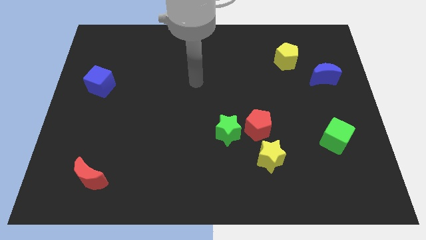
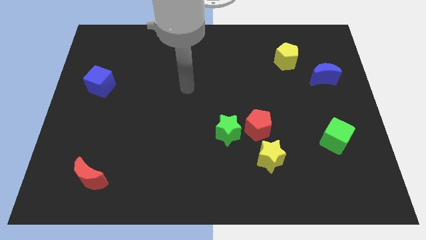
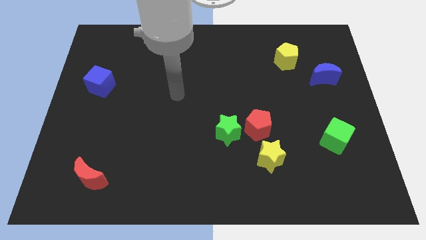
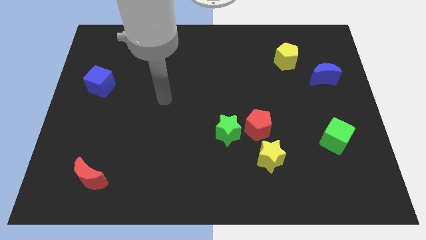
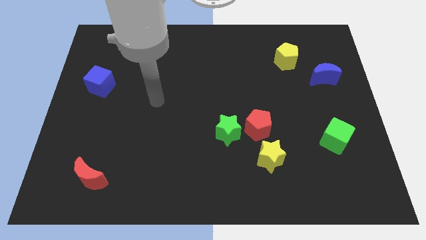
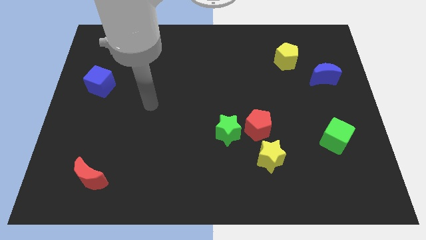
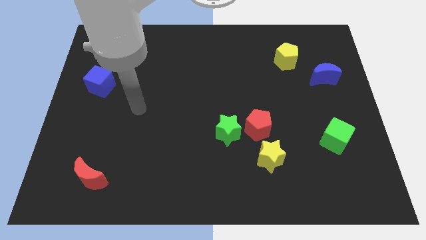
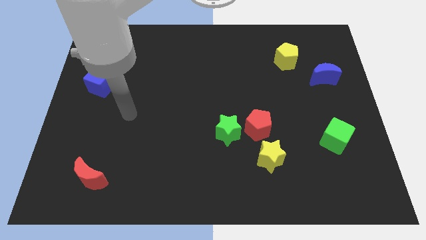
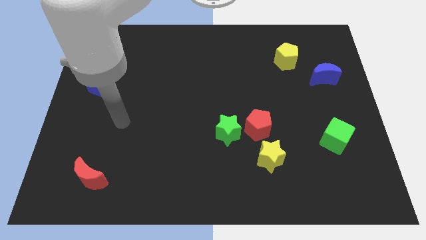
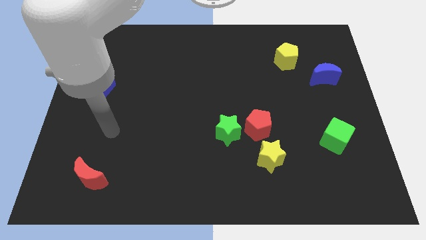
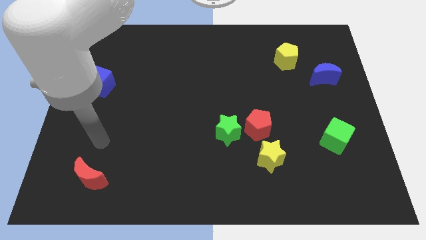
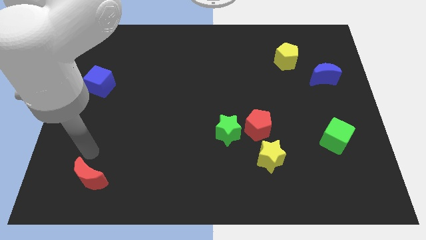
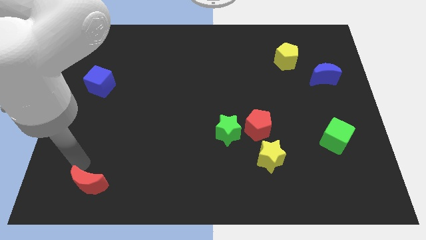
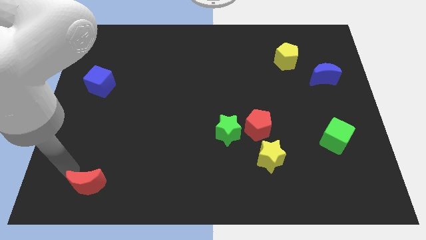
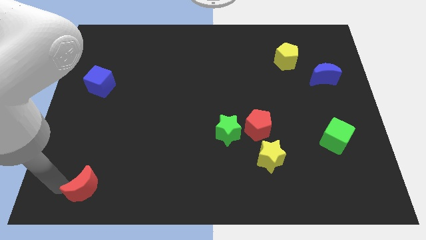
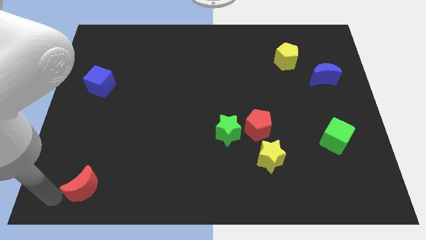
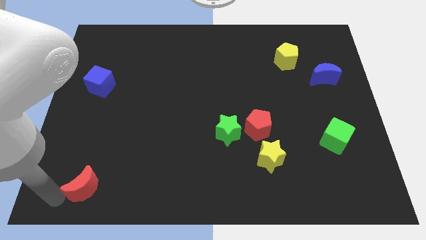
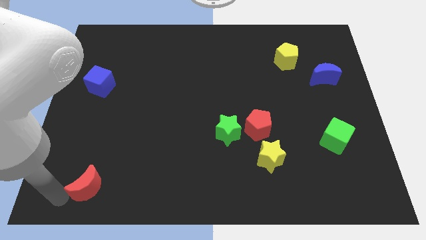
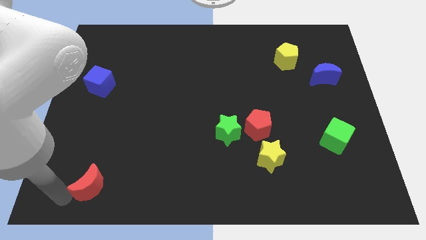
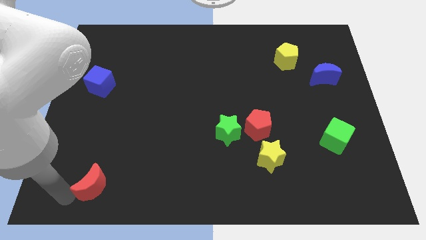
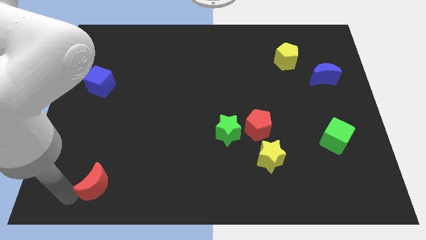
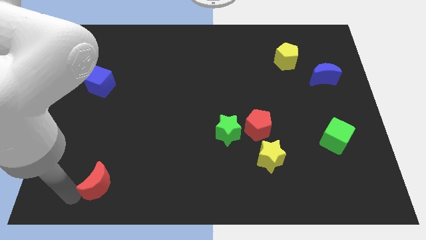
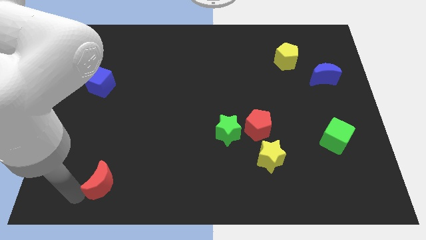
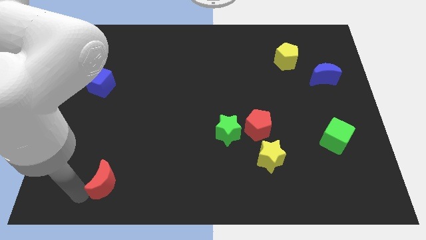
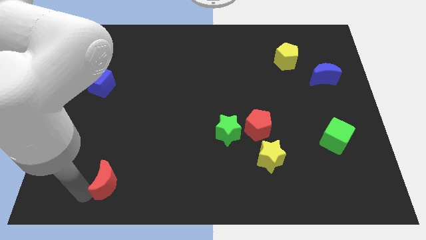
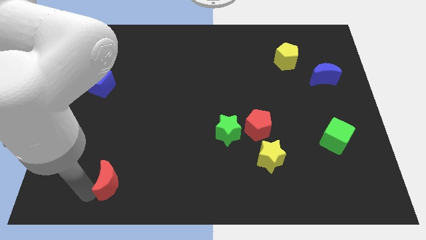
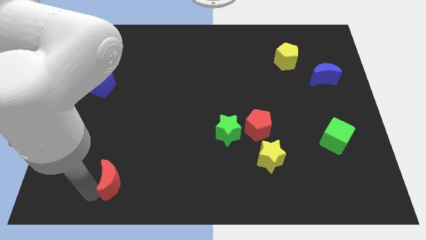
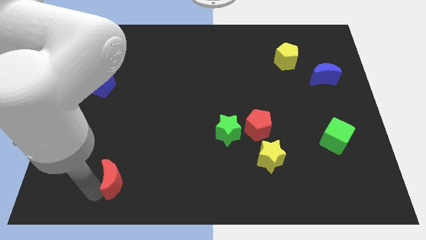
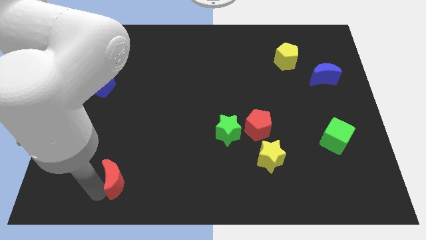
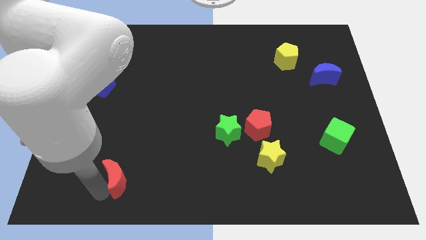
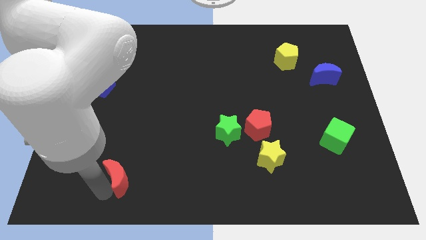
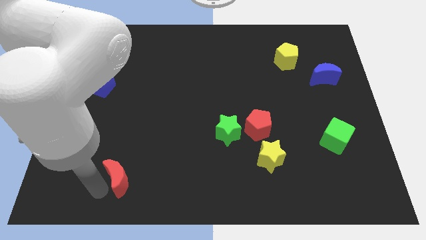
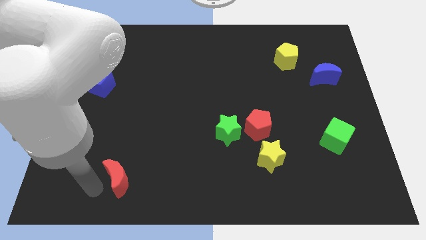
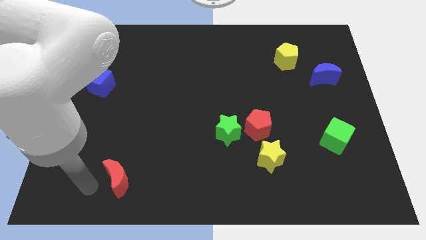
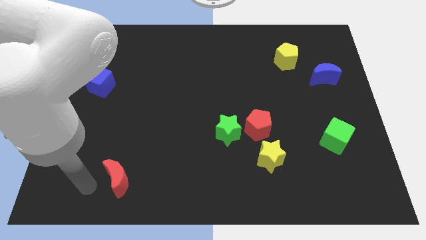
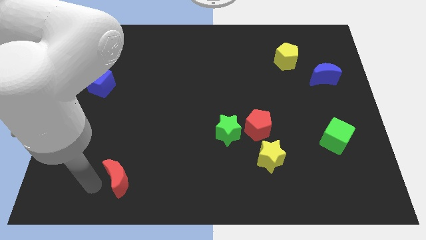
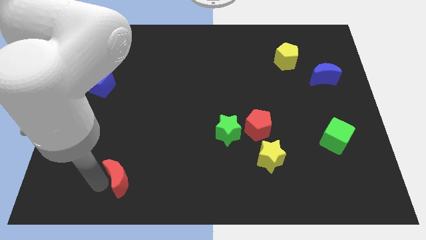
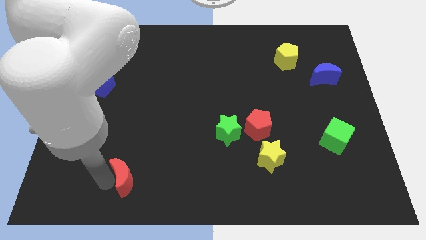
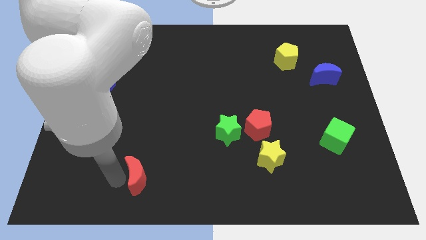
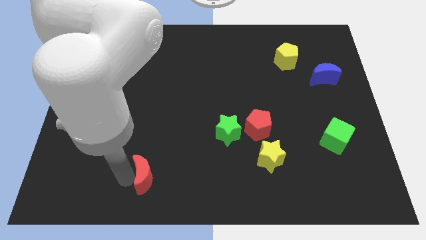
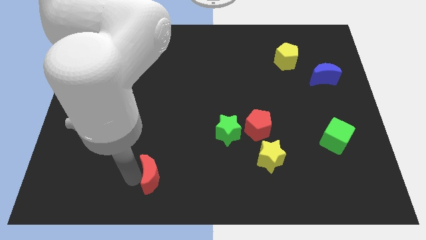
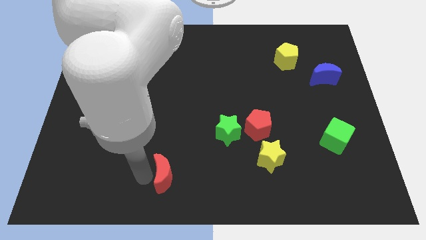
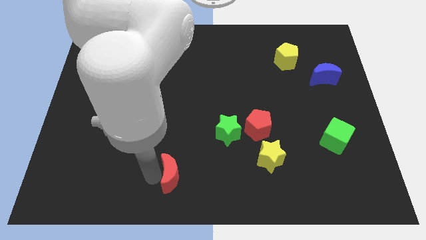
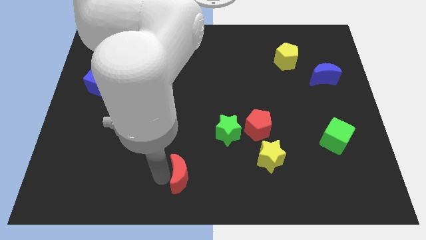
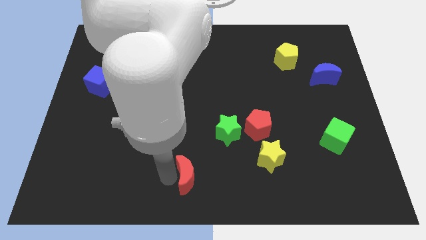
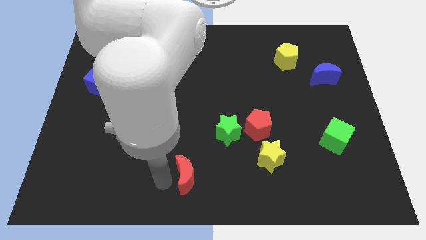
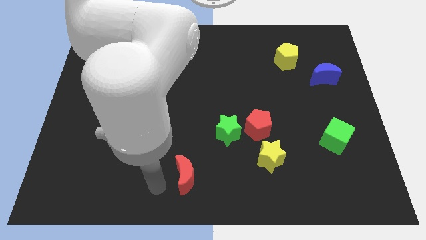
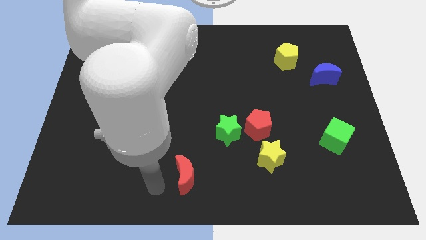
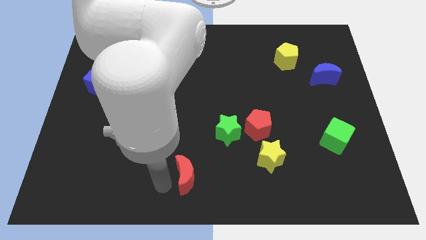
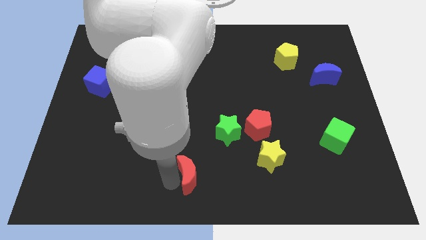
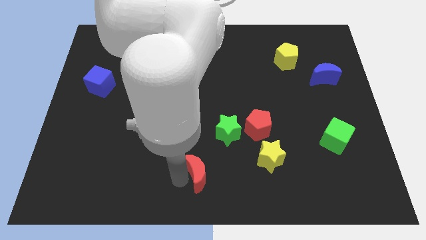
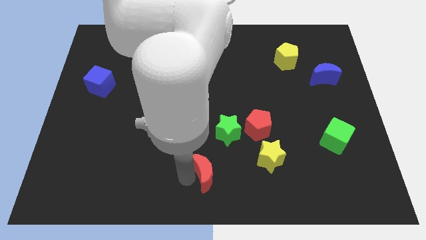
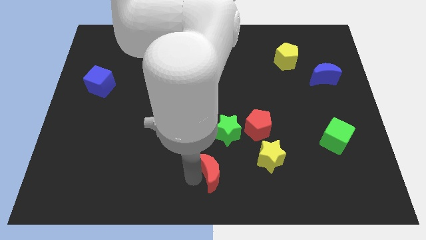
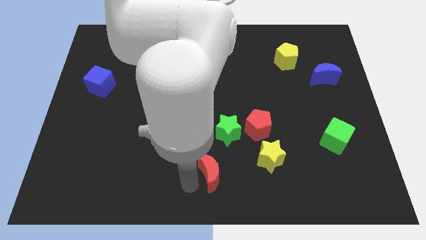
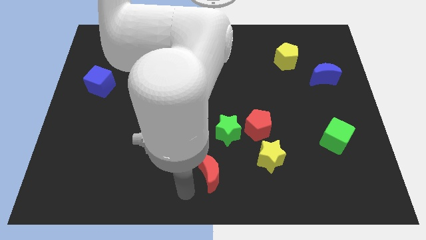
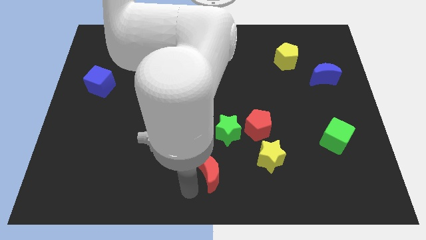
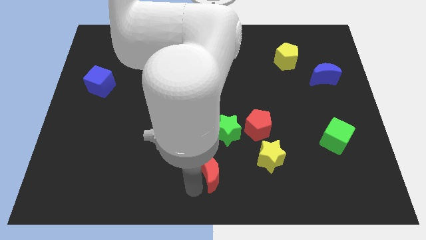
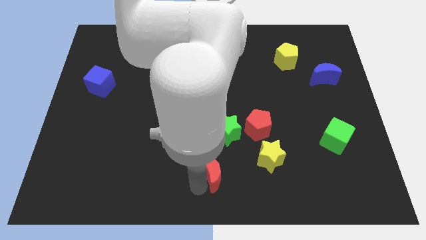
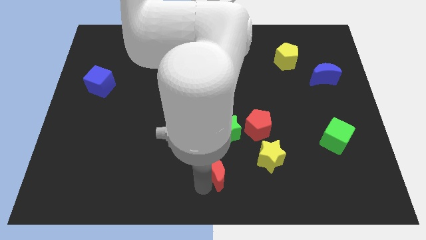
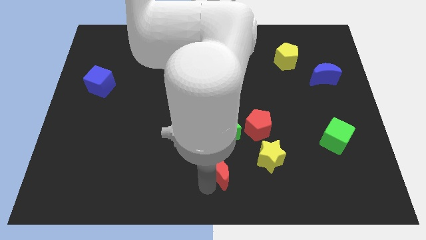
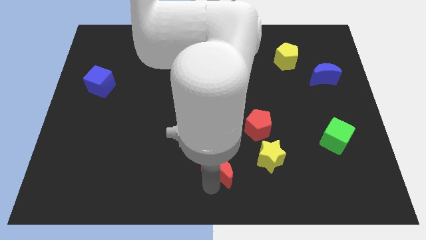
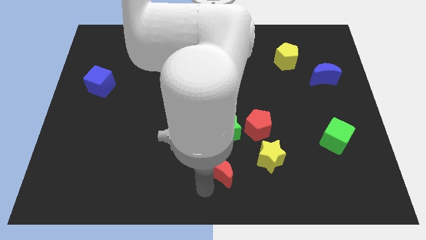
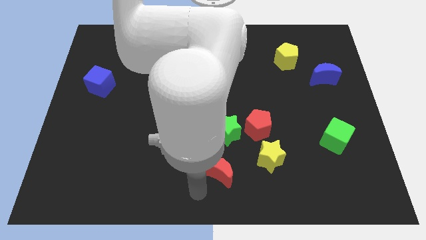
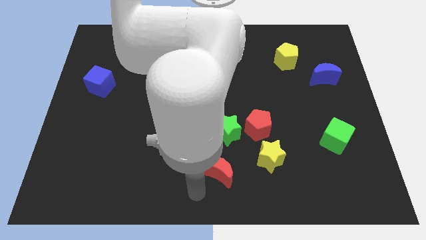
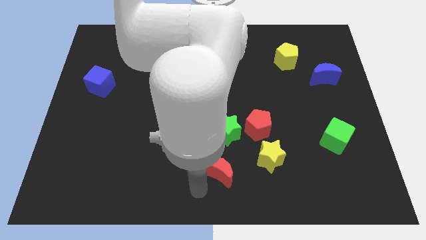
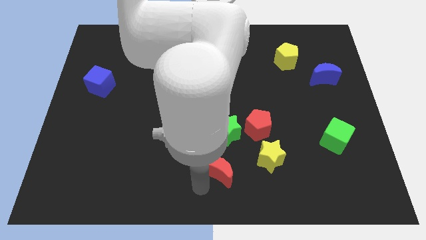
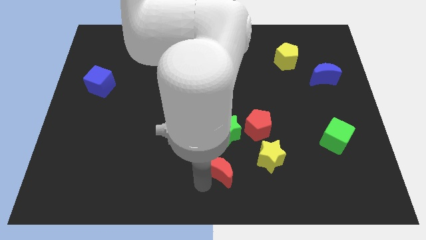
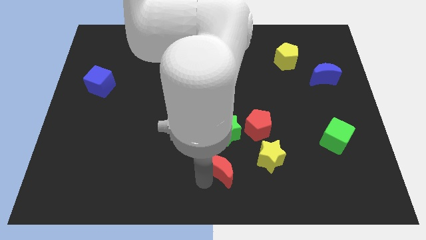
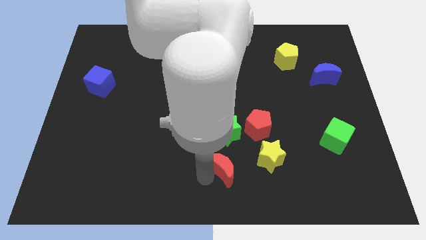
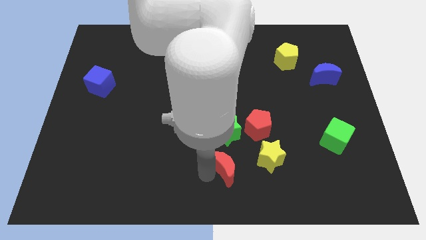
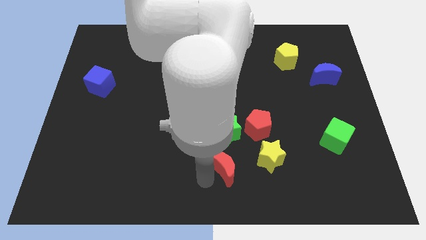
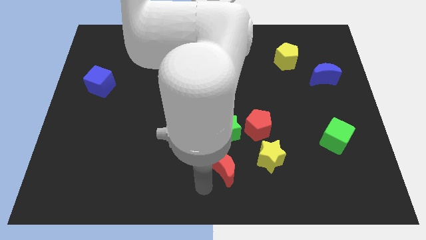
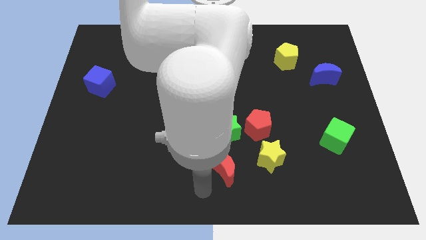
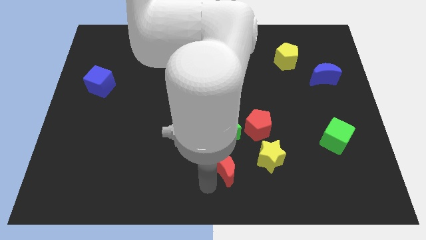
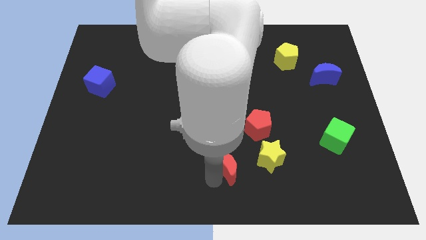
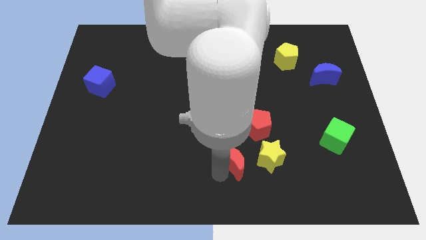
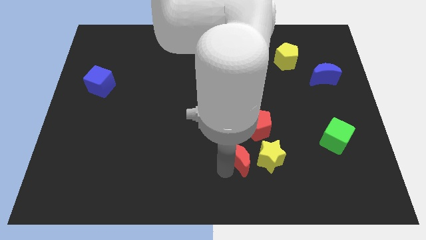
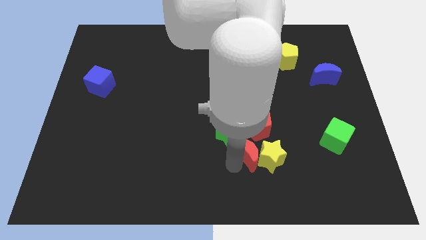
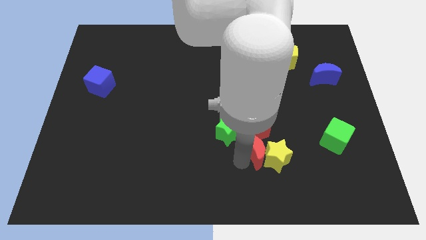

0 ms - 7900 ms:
put the red moon to the red pentagon
